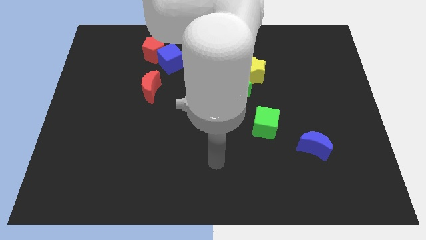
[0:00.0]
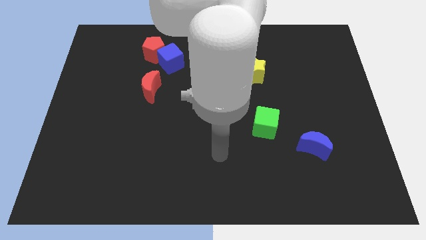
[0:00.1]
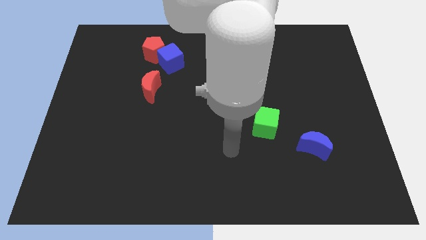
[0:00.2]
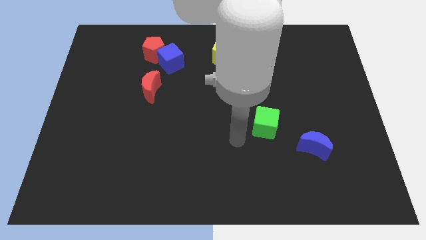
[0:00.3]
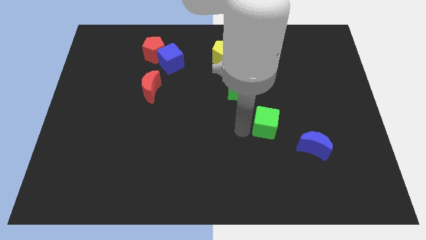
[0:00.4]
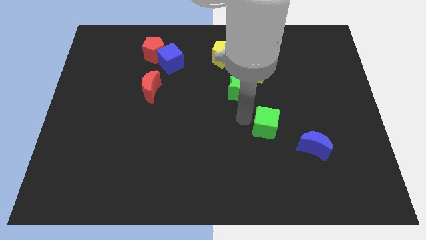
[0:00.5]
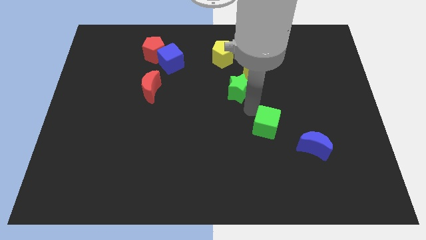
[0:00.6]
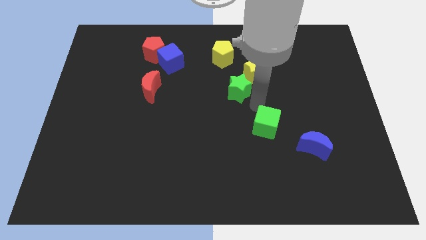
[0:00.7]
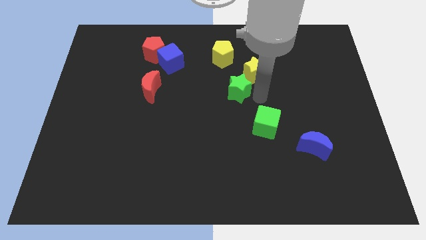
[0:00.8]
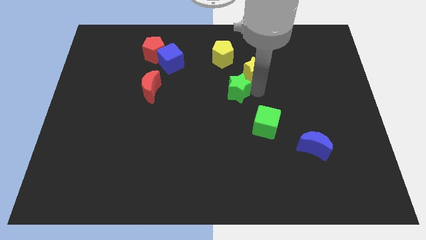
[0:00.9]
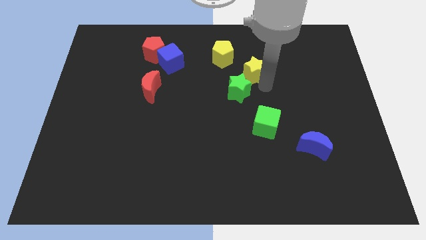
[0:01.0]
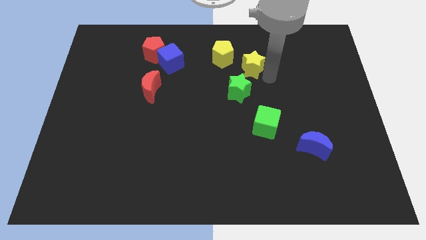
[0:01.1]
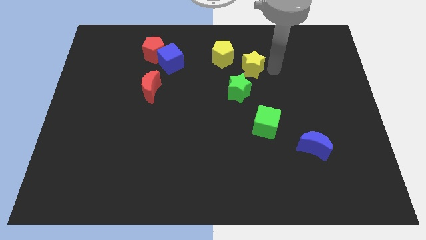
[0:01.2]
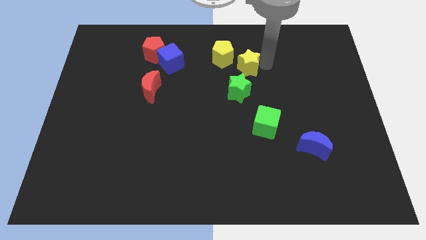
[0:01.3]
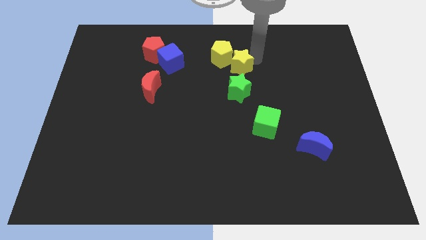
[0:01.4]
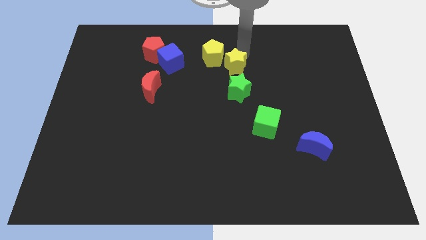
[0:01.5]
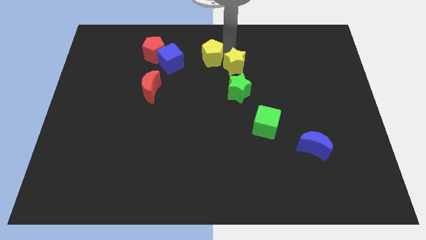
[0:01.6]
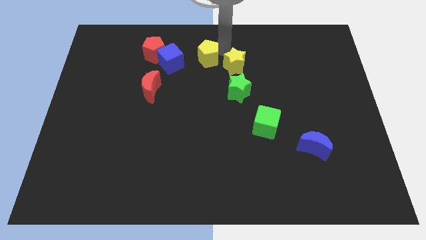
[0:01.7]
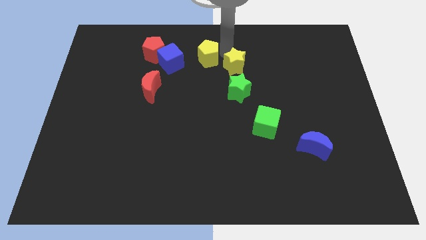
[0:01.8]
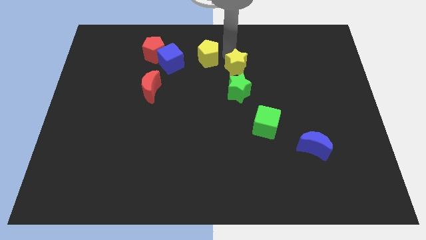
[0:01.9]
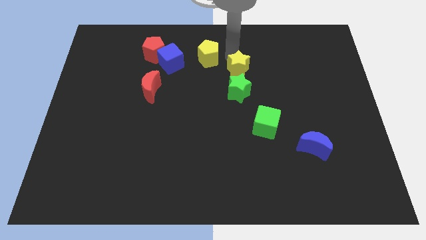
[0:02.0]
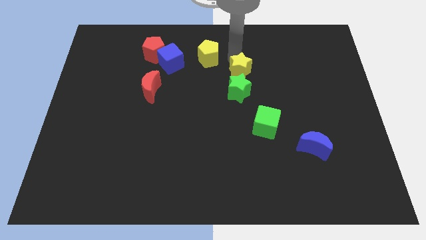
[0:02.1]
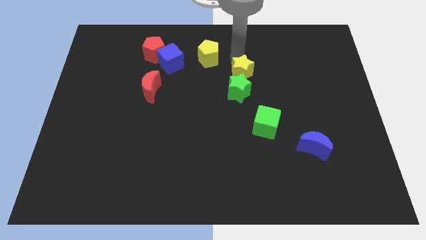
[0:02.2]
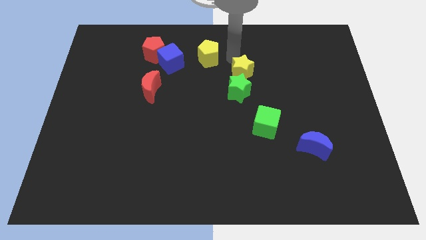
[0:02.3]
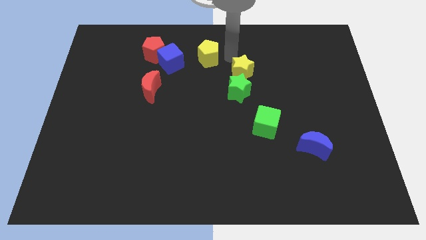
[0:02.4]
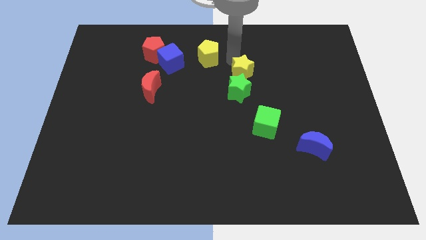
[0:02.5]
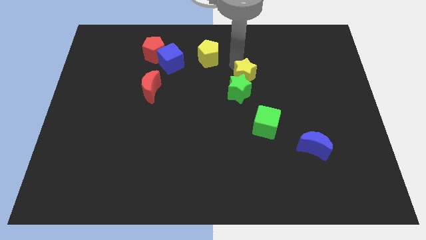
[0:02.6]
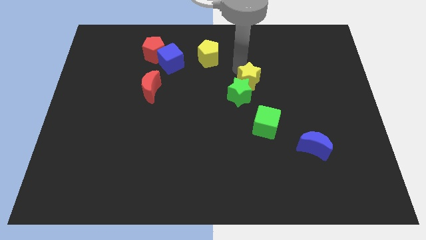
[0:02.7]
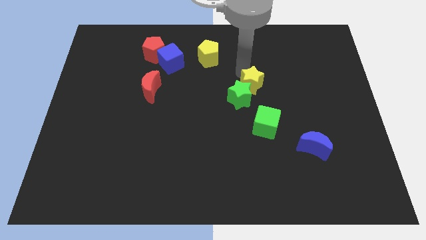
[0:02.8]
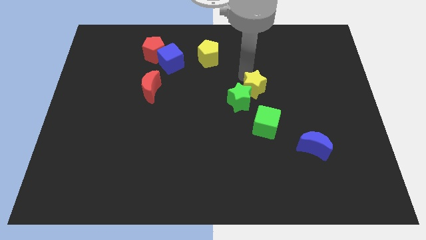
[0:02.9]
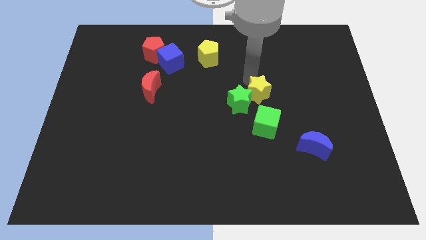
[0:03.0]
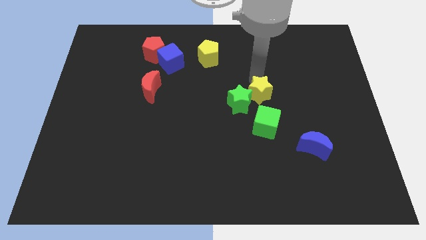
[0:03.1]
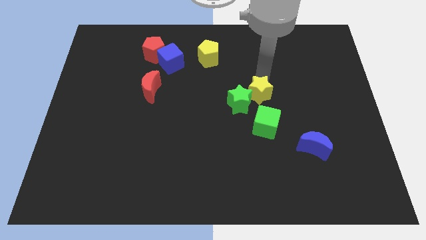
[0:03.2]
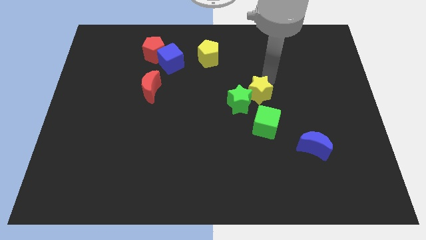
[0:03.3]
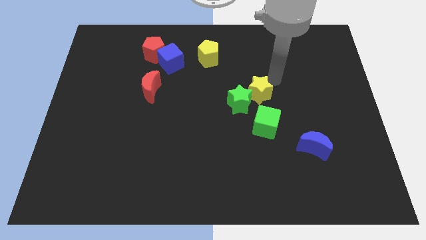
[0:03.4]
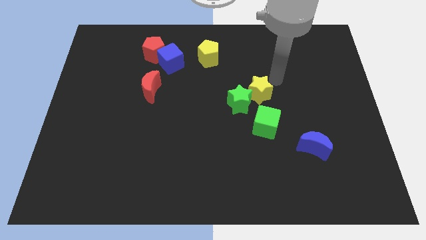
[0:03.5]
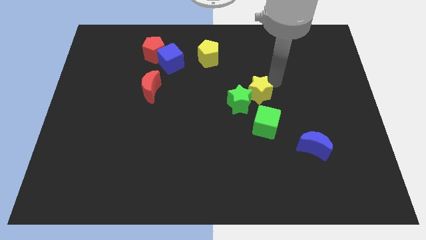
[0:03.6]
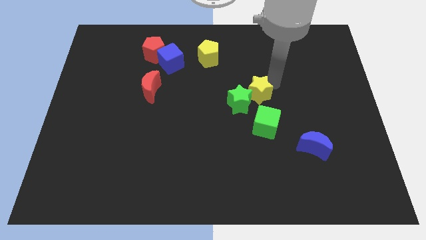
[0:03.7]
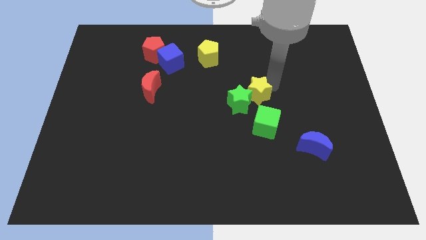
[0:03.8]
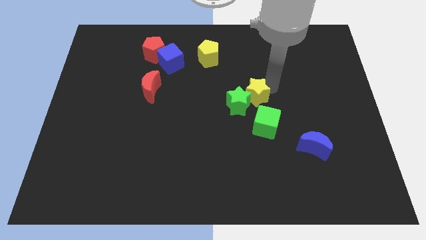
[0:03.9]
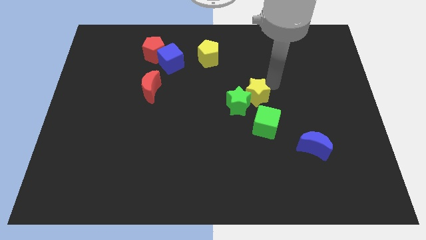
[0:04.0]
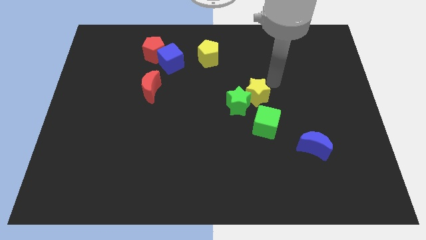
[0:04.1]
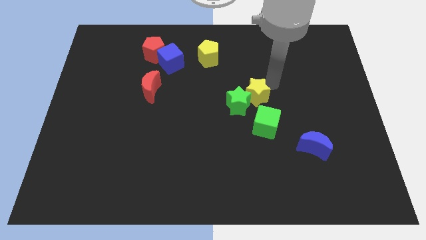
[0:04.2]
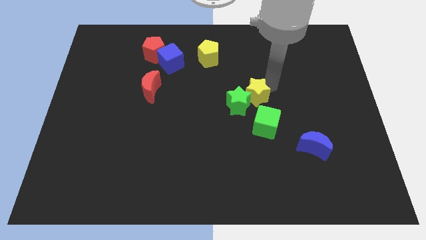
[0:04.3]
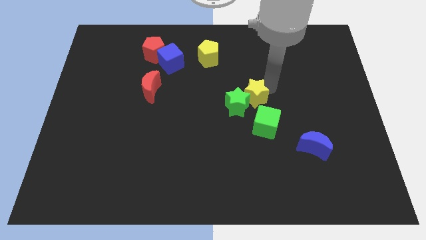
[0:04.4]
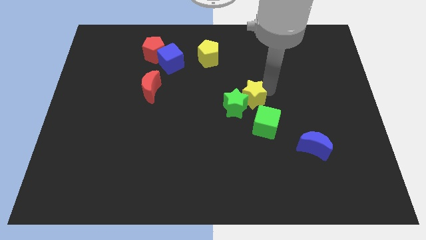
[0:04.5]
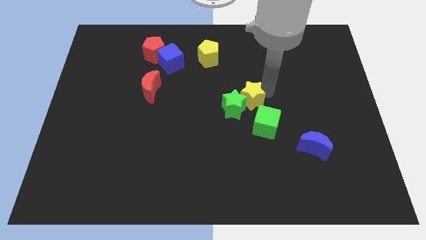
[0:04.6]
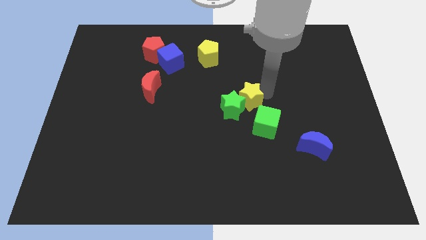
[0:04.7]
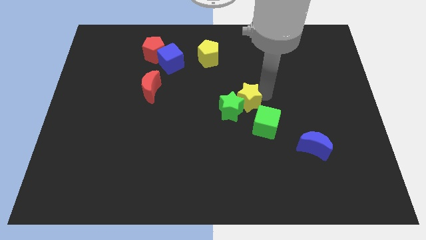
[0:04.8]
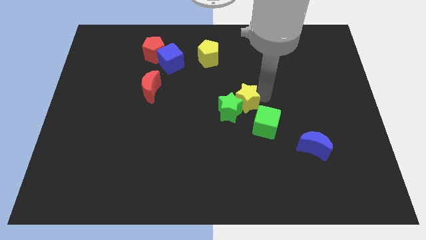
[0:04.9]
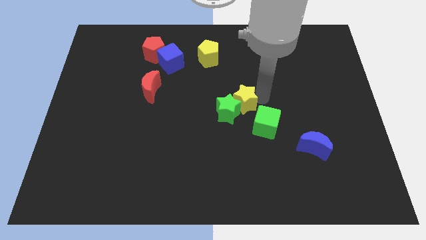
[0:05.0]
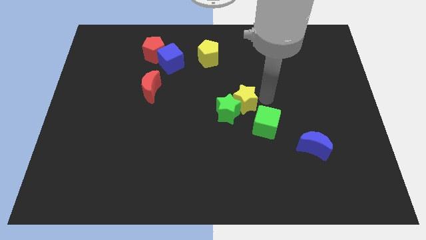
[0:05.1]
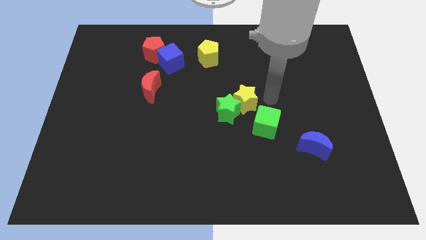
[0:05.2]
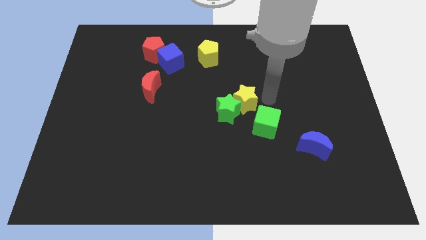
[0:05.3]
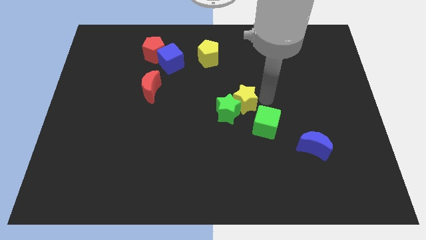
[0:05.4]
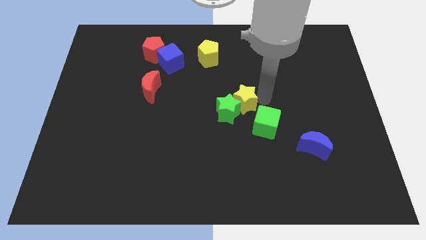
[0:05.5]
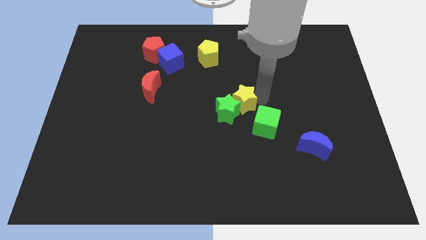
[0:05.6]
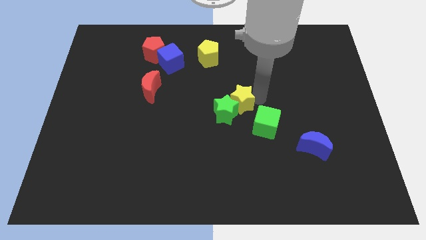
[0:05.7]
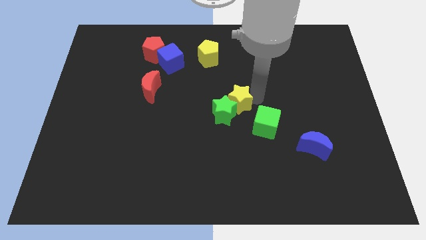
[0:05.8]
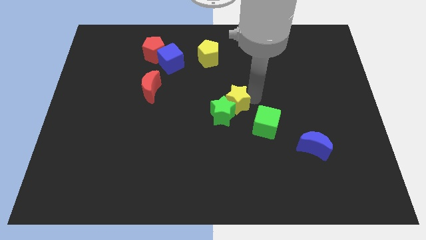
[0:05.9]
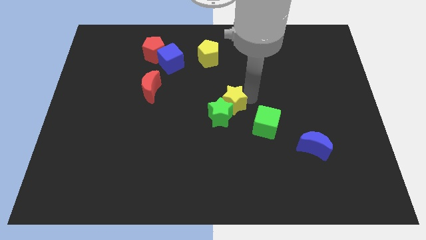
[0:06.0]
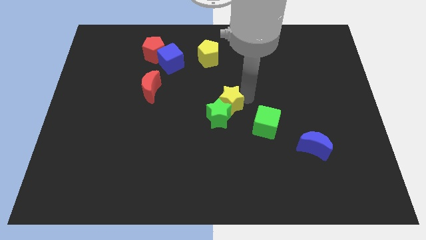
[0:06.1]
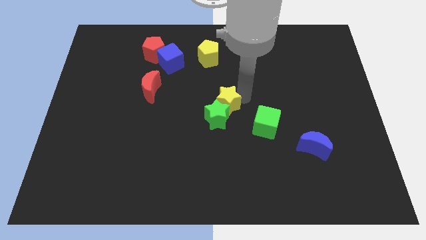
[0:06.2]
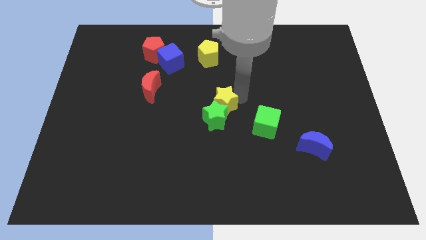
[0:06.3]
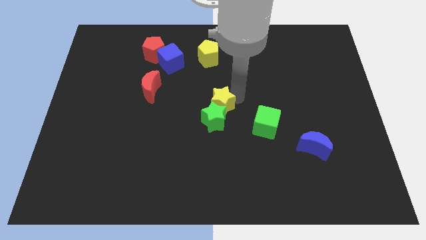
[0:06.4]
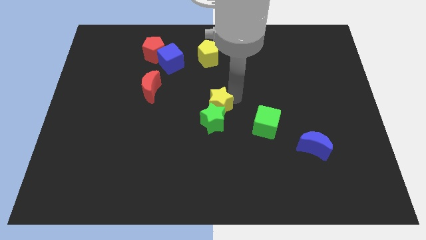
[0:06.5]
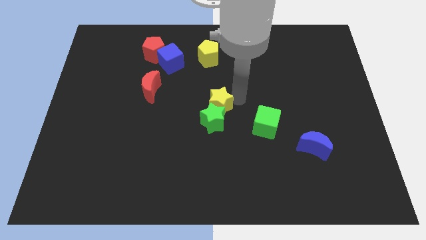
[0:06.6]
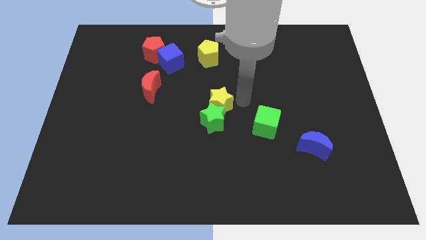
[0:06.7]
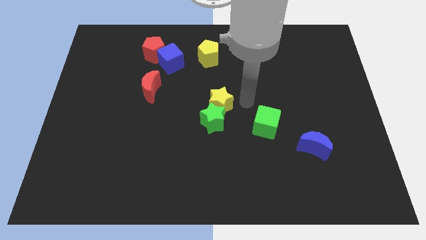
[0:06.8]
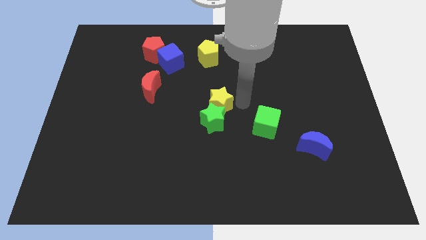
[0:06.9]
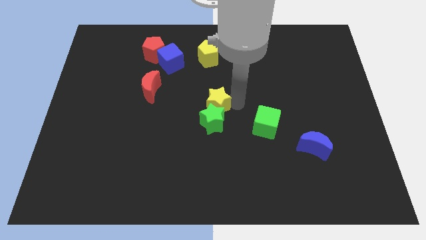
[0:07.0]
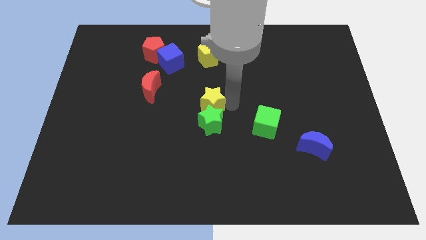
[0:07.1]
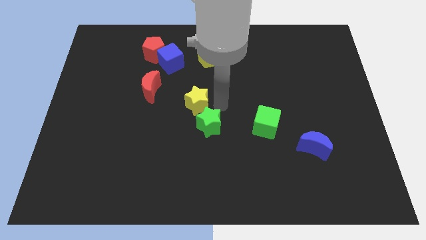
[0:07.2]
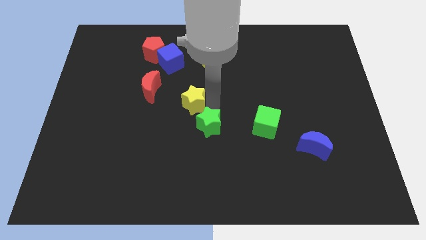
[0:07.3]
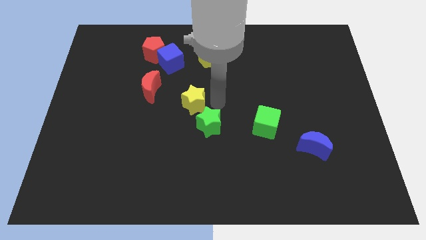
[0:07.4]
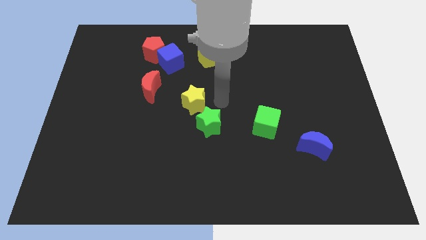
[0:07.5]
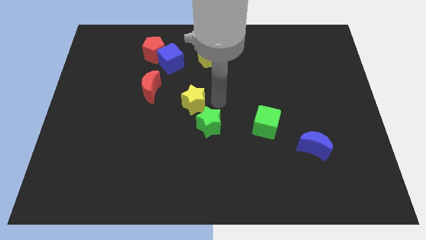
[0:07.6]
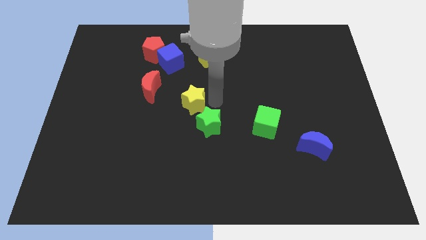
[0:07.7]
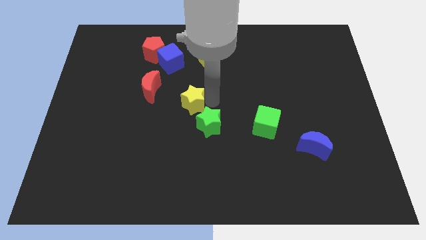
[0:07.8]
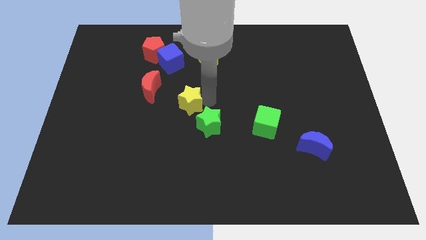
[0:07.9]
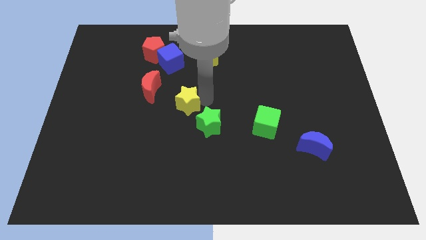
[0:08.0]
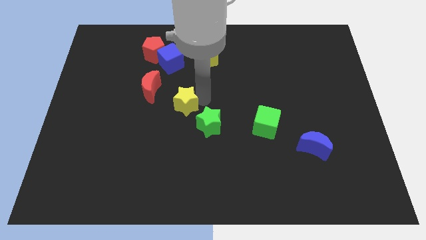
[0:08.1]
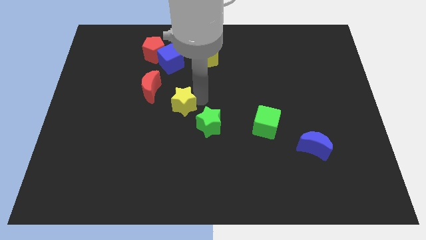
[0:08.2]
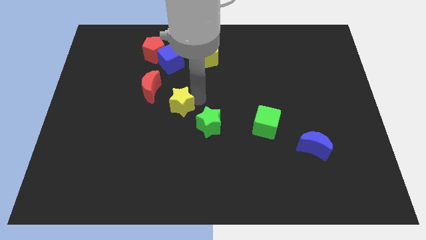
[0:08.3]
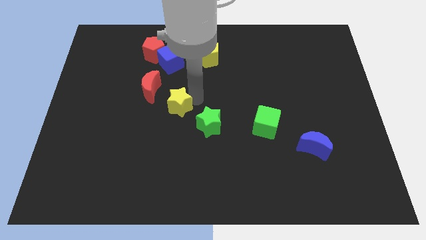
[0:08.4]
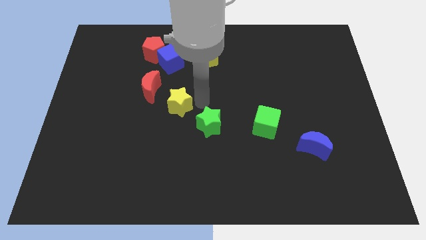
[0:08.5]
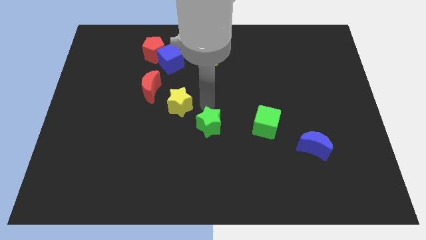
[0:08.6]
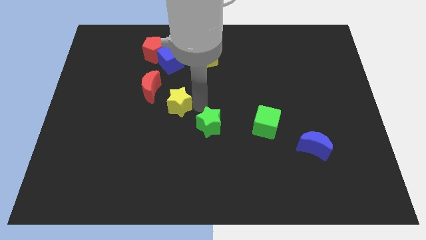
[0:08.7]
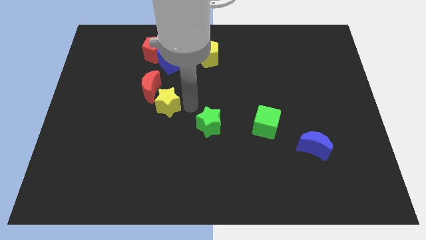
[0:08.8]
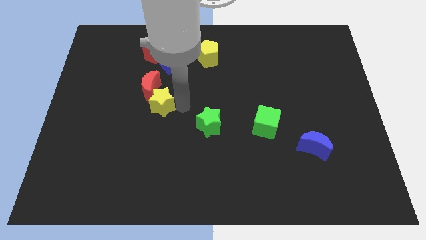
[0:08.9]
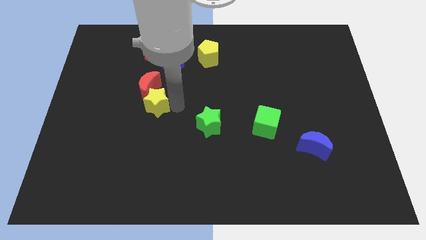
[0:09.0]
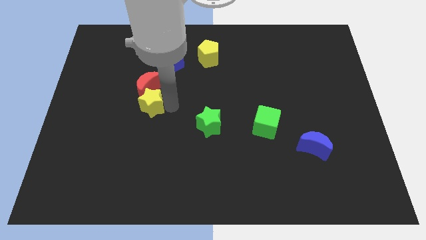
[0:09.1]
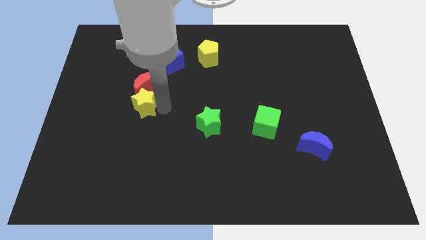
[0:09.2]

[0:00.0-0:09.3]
move the yellow star left
